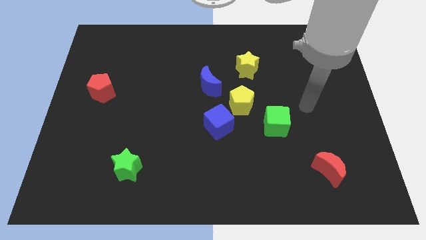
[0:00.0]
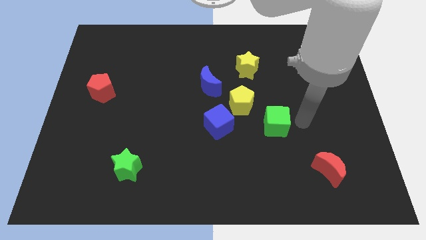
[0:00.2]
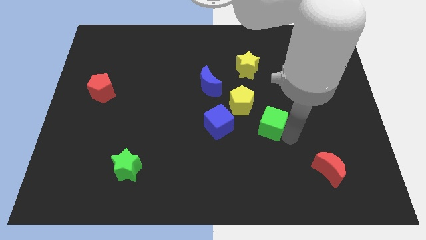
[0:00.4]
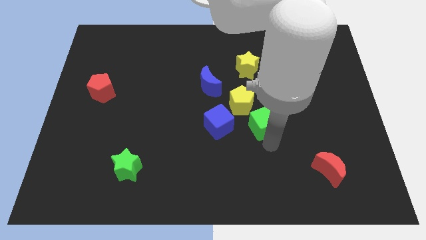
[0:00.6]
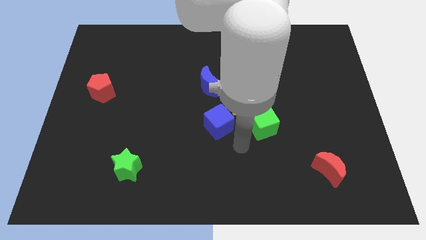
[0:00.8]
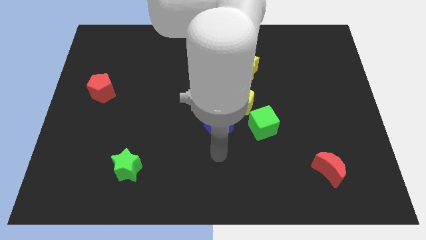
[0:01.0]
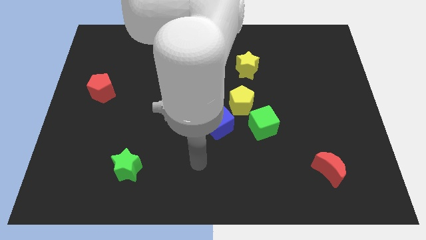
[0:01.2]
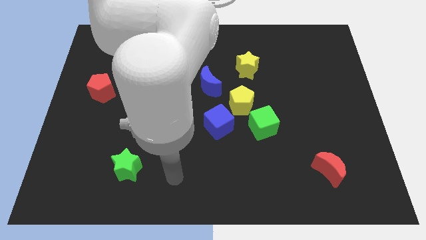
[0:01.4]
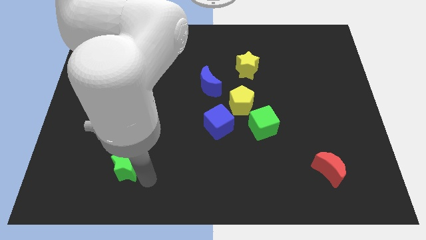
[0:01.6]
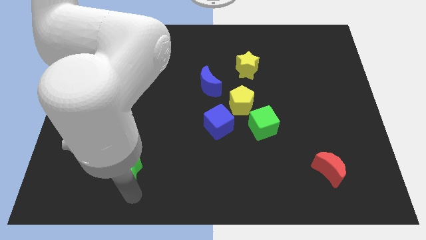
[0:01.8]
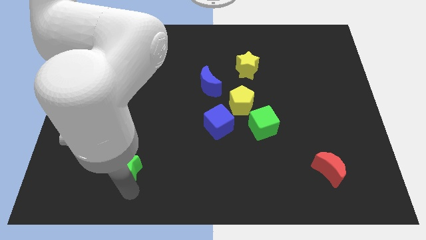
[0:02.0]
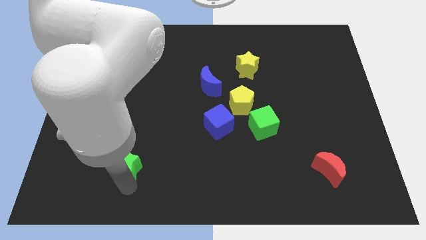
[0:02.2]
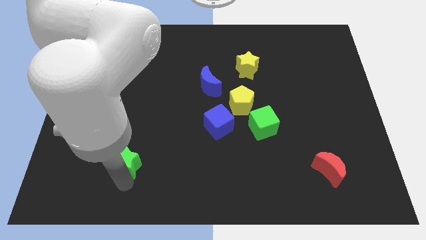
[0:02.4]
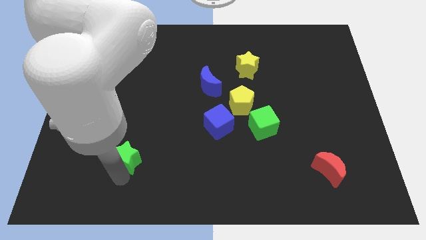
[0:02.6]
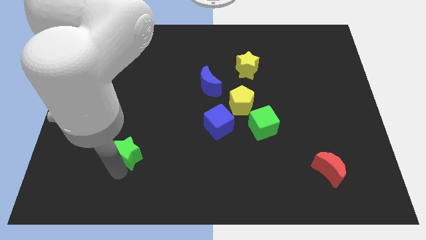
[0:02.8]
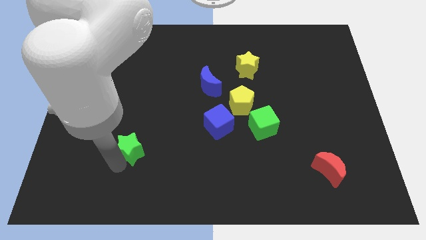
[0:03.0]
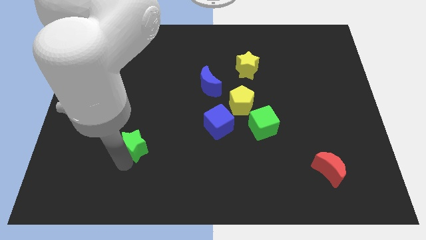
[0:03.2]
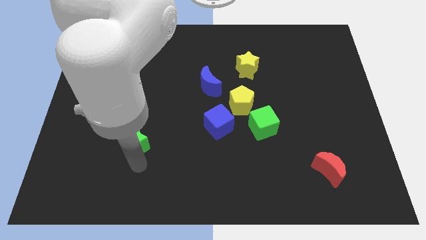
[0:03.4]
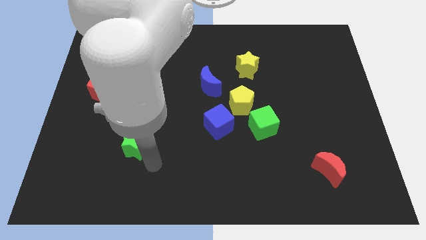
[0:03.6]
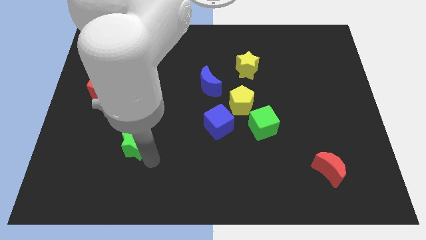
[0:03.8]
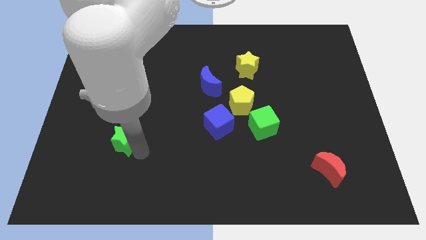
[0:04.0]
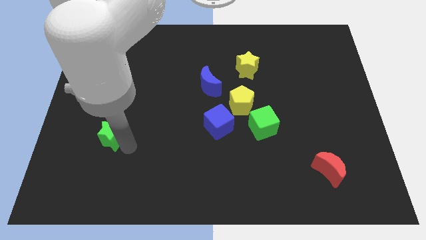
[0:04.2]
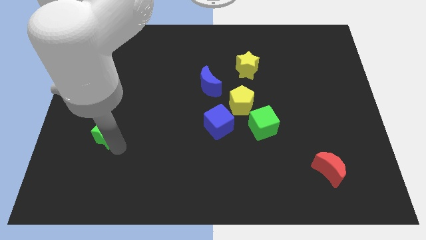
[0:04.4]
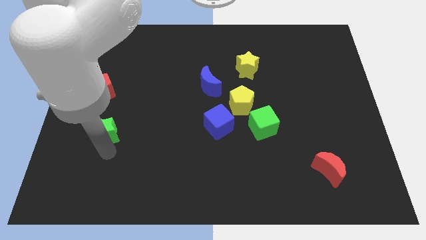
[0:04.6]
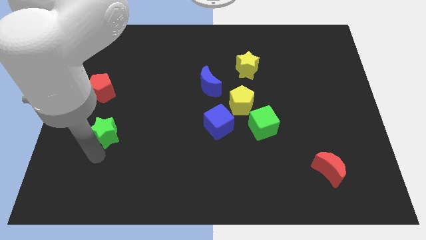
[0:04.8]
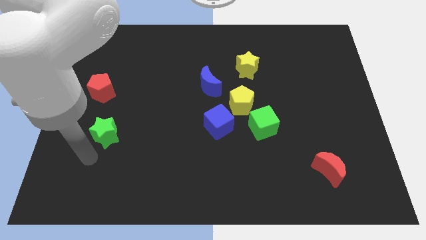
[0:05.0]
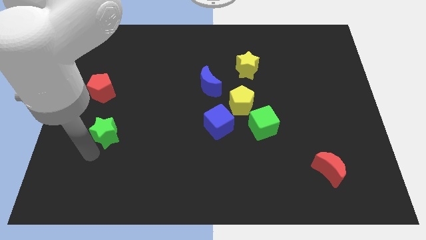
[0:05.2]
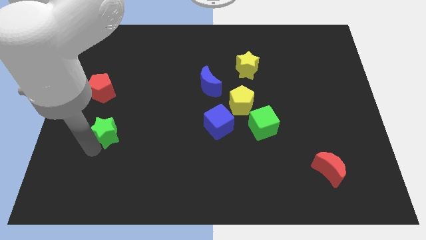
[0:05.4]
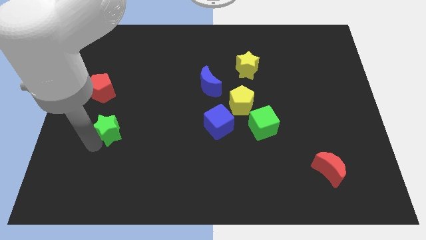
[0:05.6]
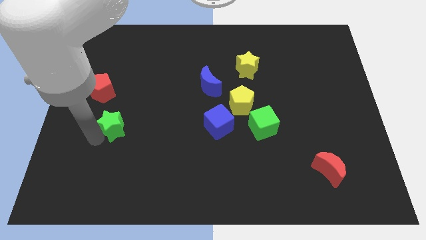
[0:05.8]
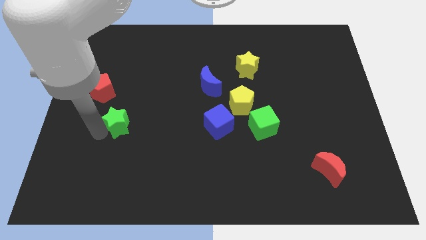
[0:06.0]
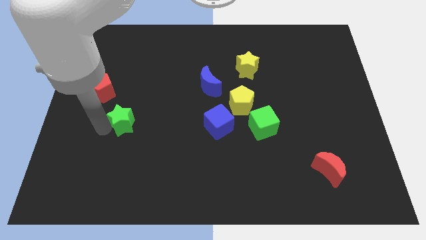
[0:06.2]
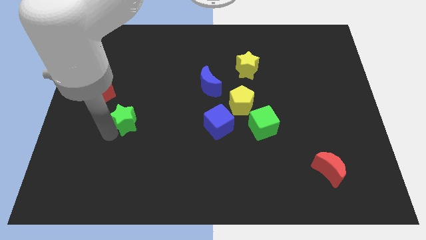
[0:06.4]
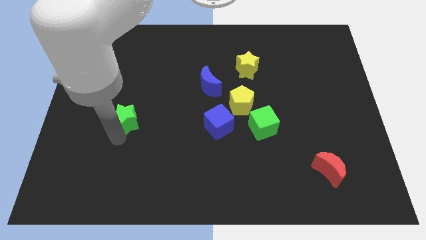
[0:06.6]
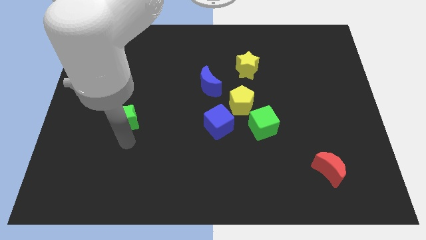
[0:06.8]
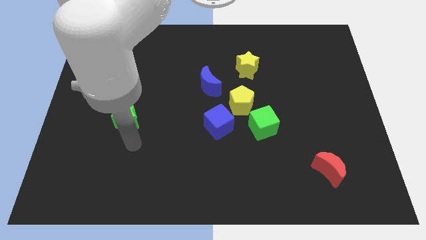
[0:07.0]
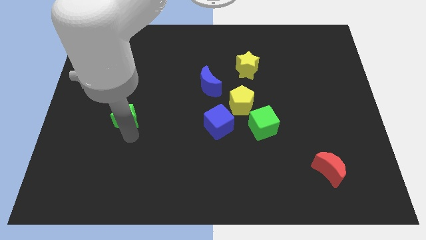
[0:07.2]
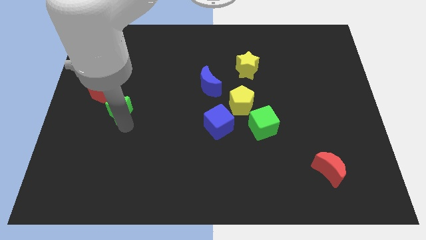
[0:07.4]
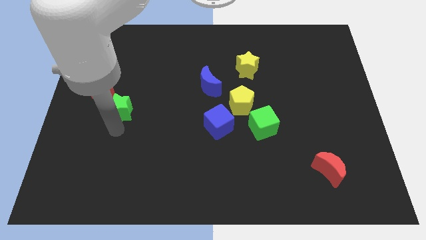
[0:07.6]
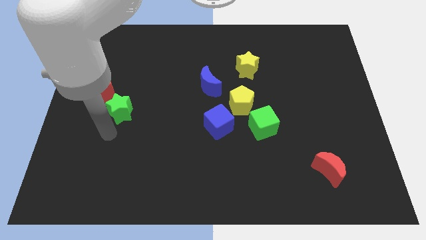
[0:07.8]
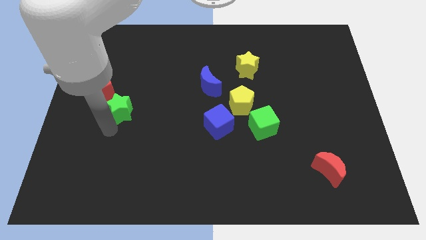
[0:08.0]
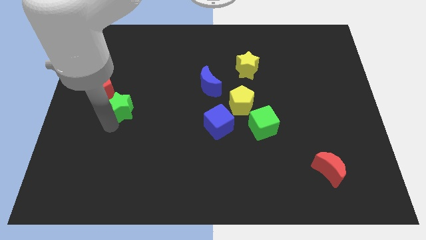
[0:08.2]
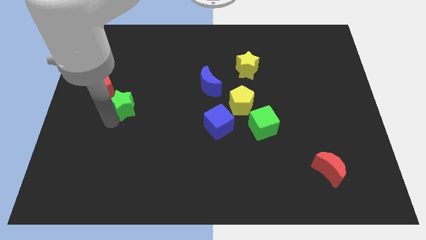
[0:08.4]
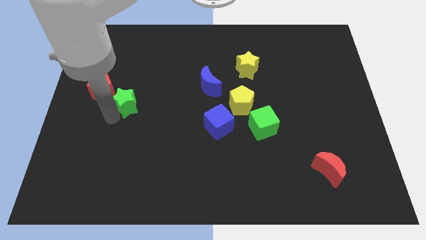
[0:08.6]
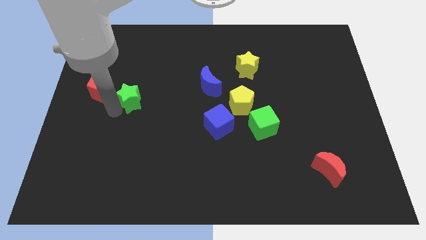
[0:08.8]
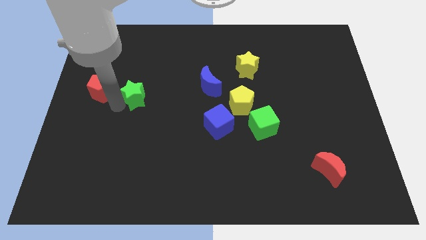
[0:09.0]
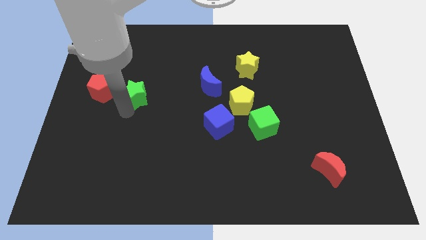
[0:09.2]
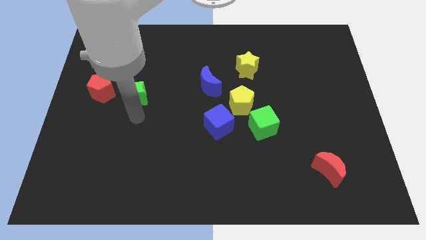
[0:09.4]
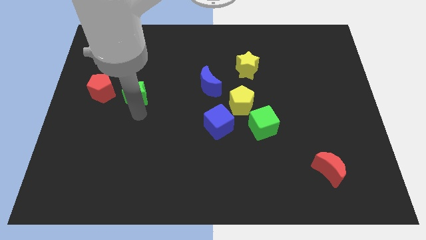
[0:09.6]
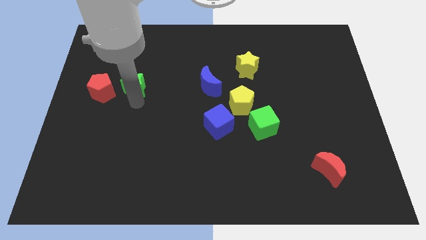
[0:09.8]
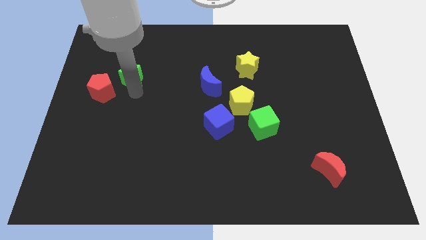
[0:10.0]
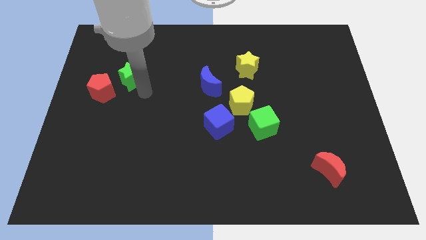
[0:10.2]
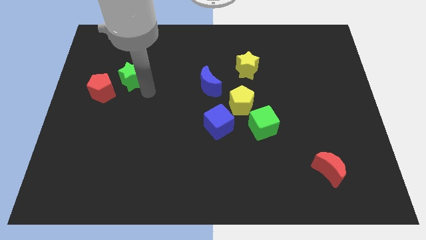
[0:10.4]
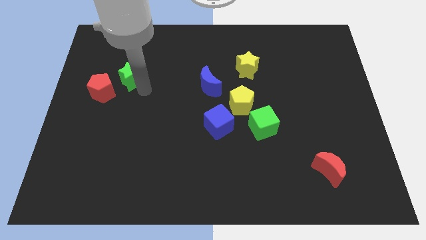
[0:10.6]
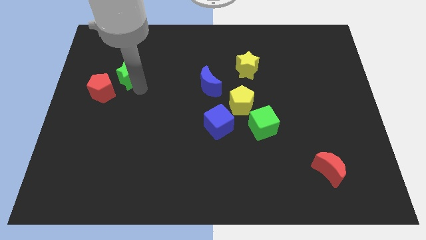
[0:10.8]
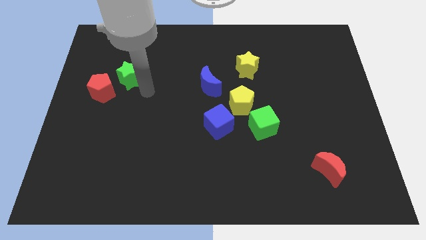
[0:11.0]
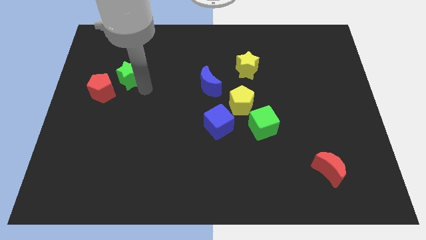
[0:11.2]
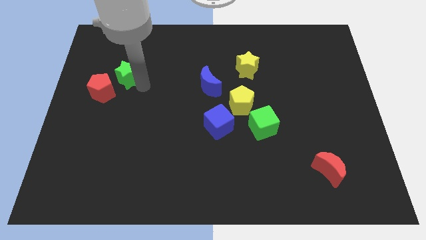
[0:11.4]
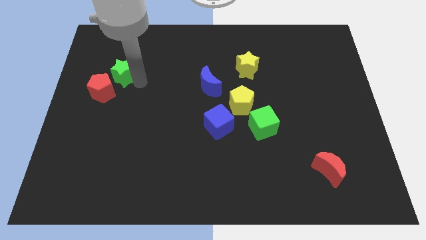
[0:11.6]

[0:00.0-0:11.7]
move the green star to the top side of the red pentagon

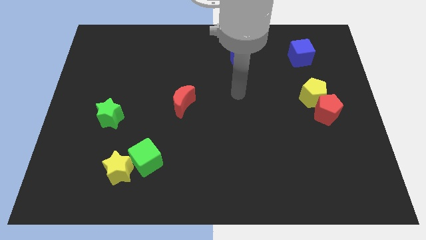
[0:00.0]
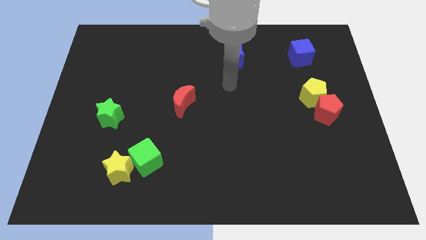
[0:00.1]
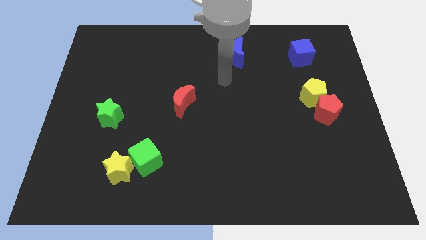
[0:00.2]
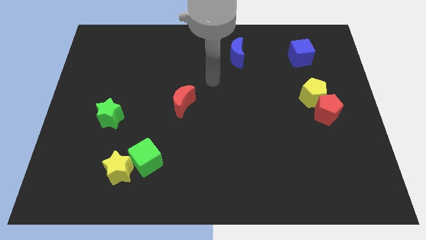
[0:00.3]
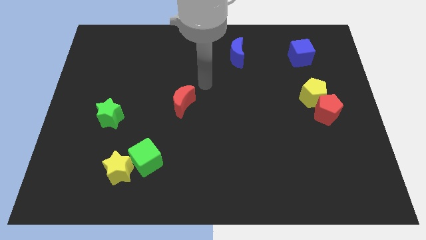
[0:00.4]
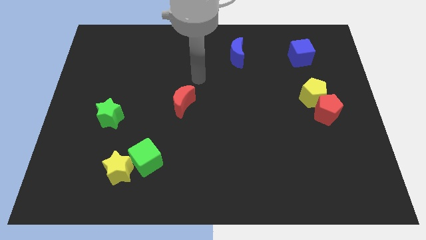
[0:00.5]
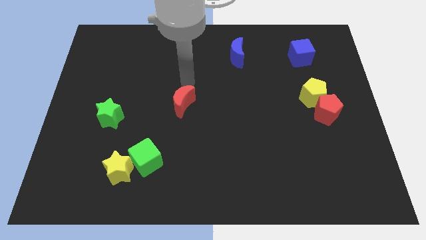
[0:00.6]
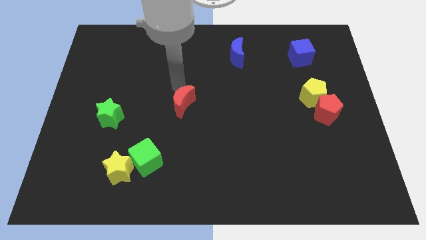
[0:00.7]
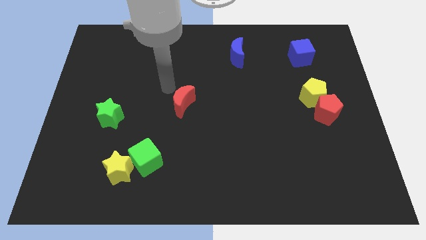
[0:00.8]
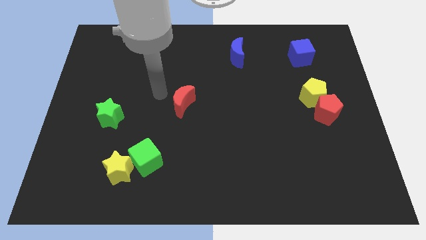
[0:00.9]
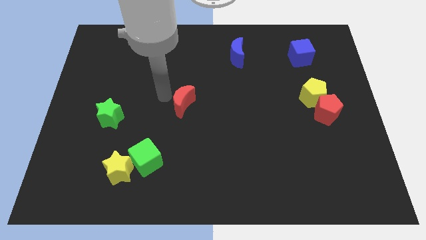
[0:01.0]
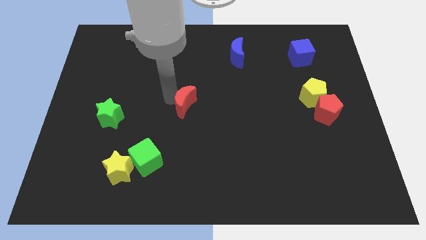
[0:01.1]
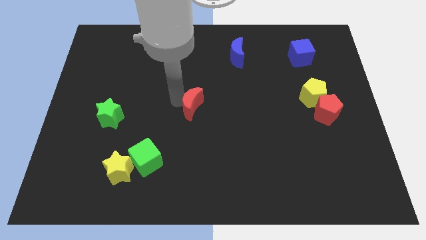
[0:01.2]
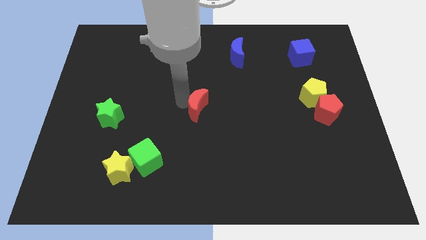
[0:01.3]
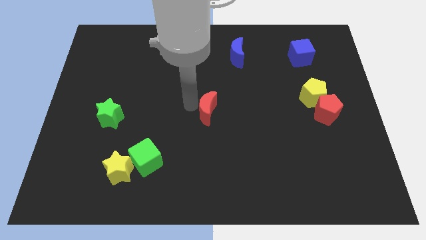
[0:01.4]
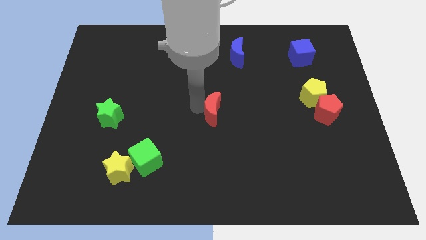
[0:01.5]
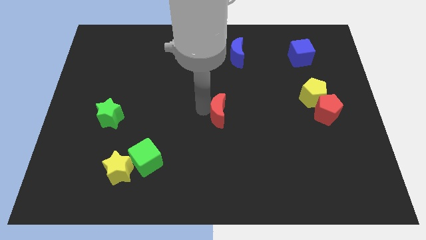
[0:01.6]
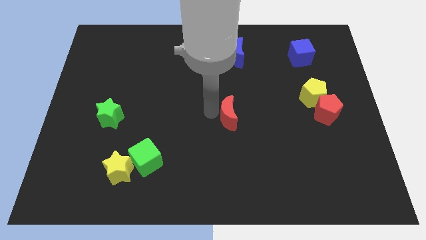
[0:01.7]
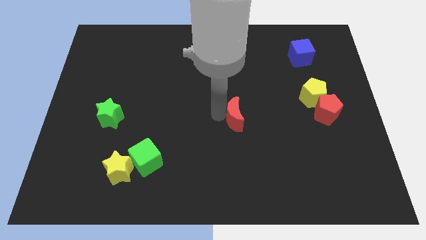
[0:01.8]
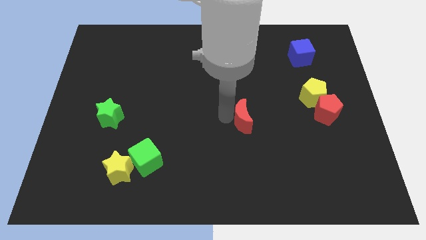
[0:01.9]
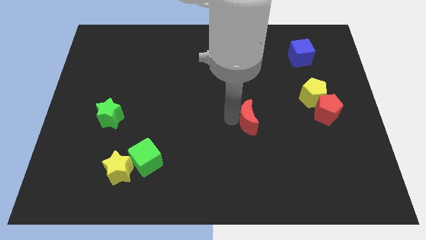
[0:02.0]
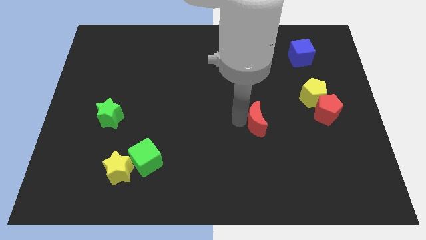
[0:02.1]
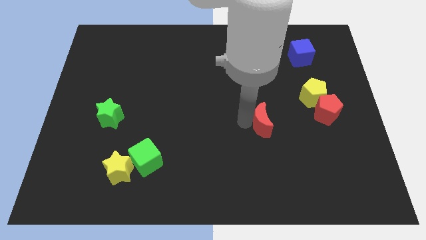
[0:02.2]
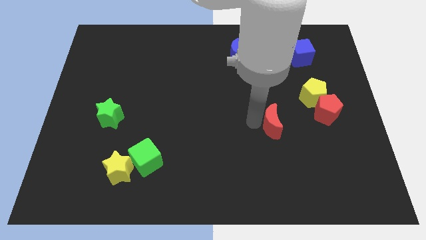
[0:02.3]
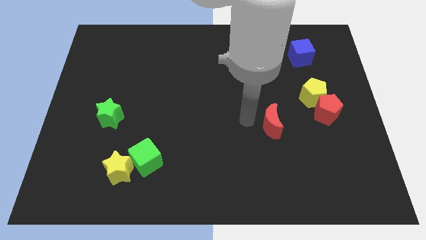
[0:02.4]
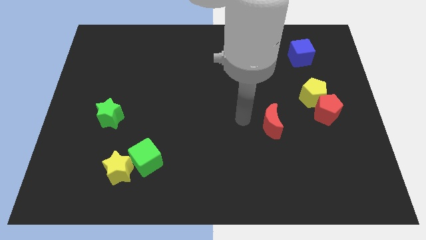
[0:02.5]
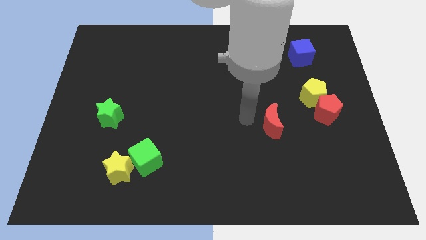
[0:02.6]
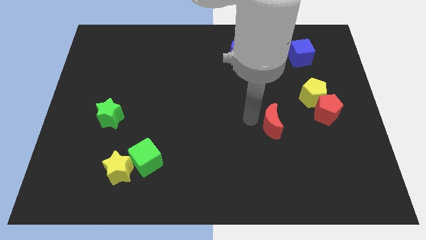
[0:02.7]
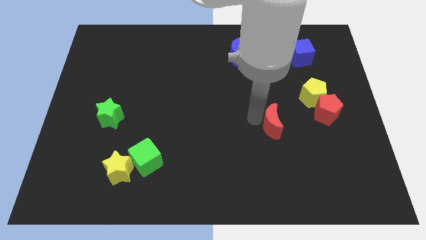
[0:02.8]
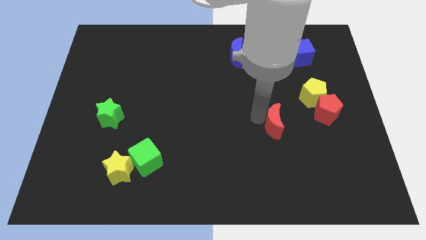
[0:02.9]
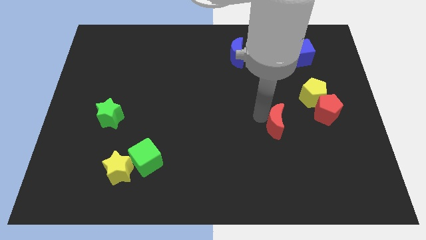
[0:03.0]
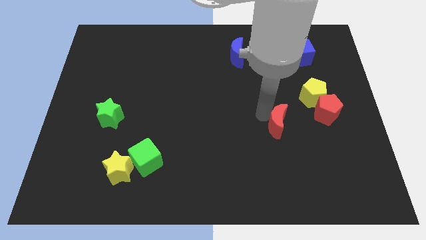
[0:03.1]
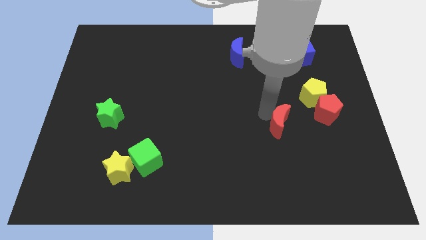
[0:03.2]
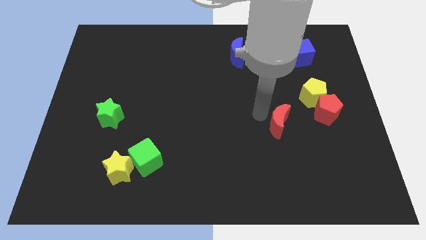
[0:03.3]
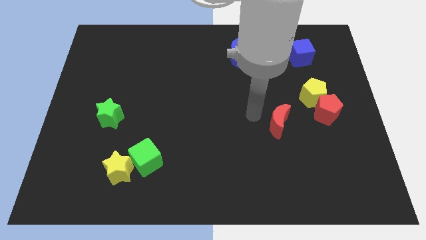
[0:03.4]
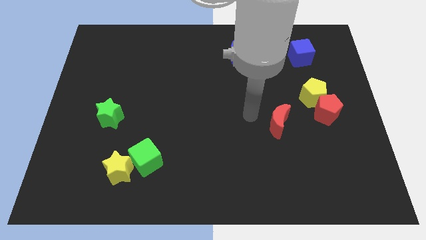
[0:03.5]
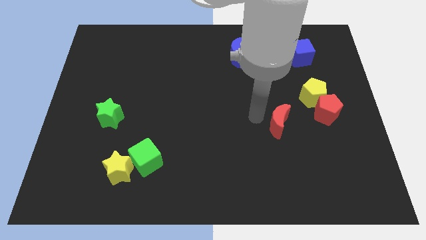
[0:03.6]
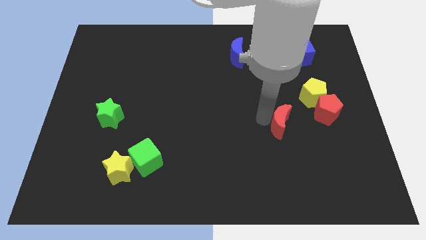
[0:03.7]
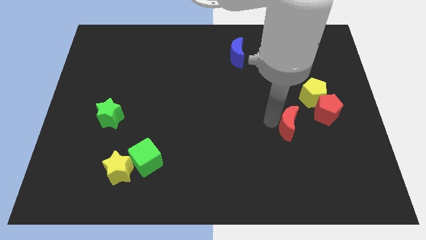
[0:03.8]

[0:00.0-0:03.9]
slide the red moon diagonally down and to the left of the red pentagon
